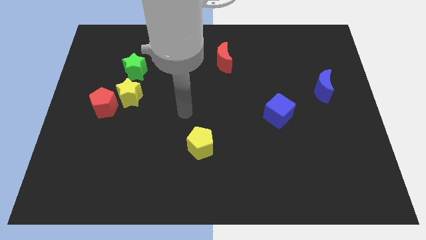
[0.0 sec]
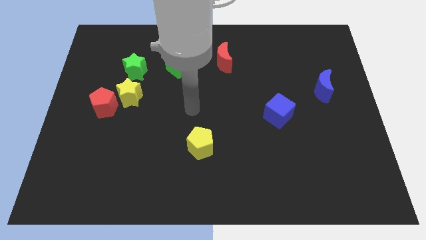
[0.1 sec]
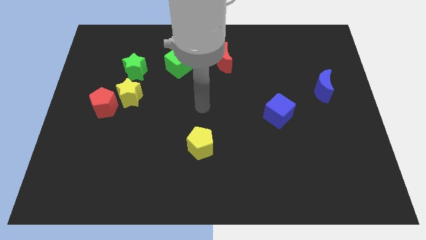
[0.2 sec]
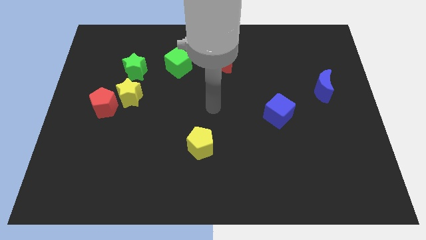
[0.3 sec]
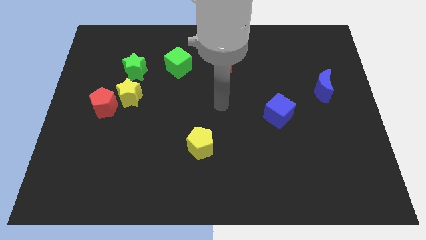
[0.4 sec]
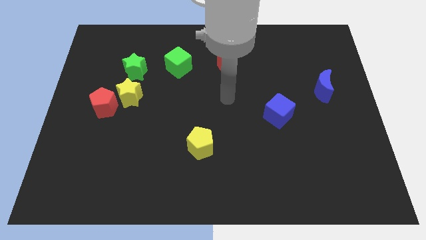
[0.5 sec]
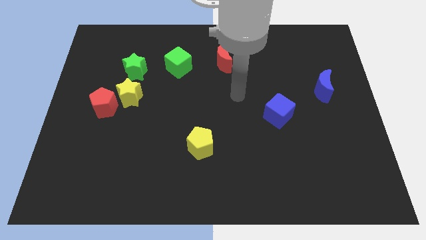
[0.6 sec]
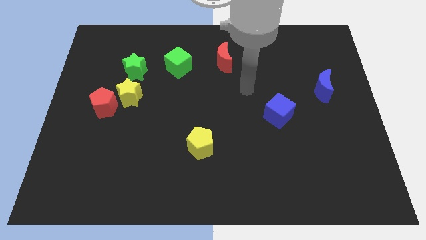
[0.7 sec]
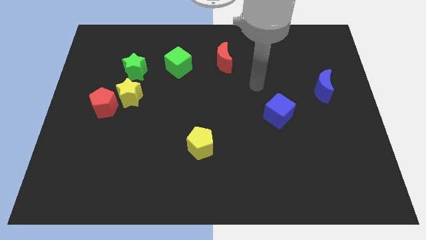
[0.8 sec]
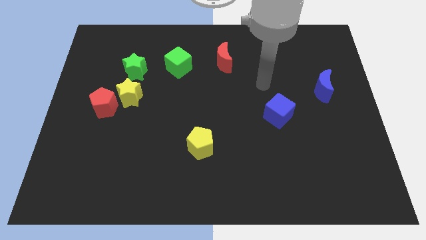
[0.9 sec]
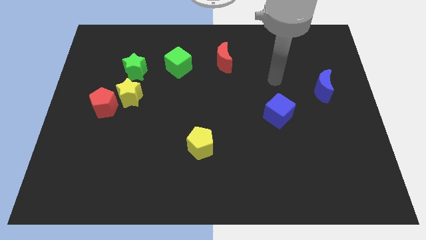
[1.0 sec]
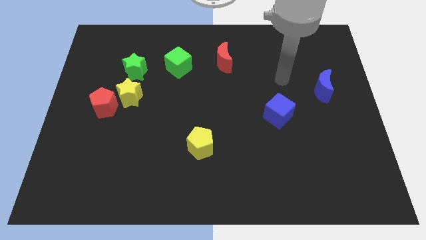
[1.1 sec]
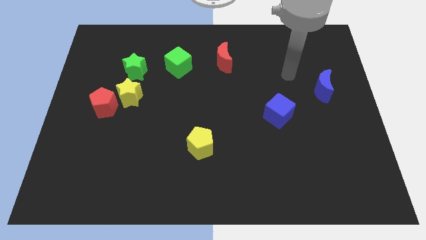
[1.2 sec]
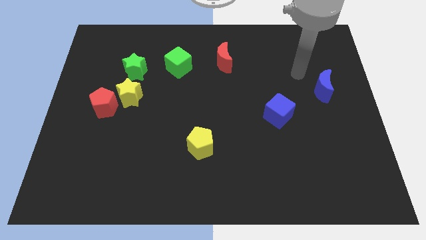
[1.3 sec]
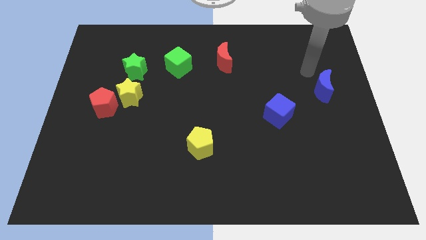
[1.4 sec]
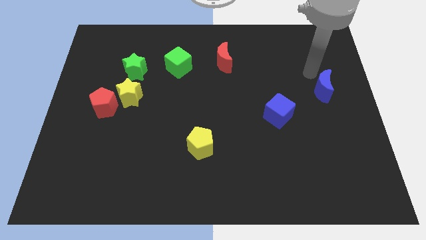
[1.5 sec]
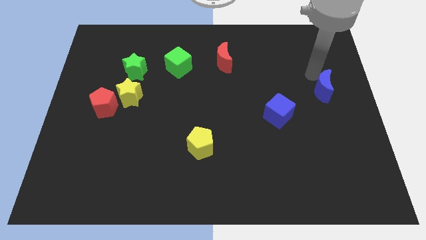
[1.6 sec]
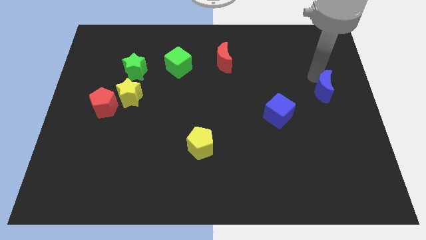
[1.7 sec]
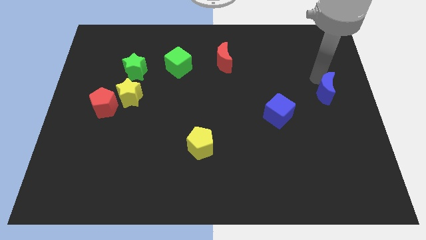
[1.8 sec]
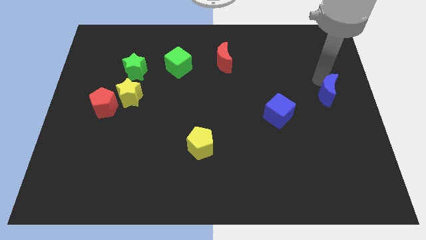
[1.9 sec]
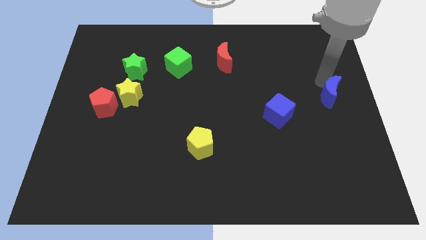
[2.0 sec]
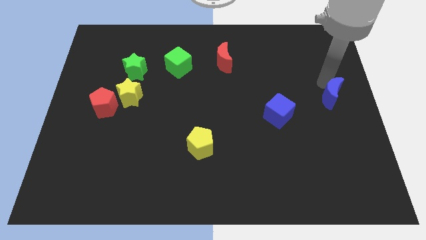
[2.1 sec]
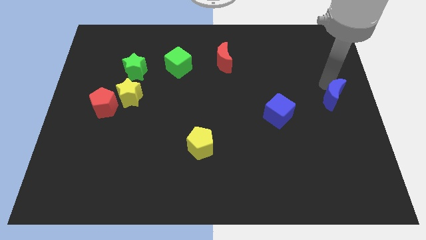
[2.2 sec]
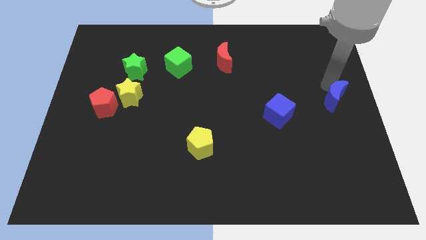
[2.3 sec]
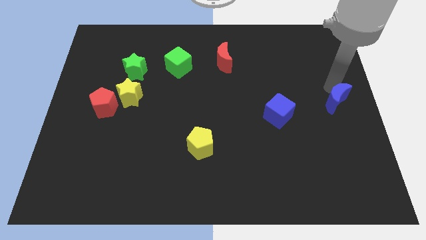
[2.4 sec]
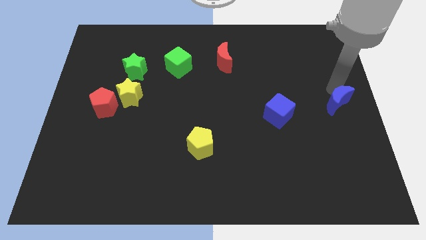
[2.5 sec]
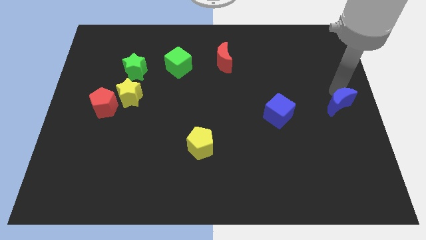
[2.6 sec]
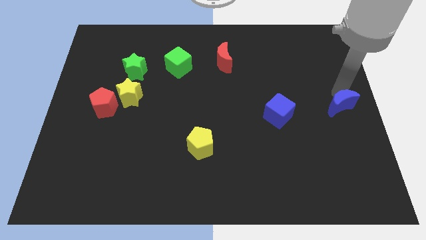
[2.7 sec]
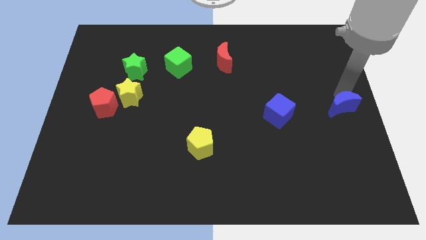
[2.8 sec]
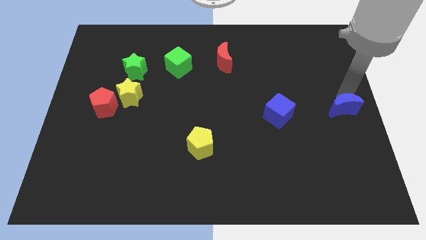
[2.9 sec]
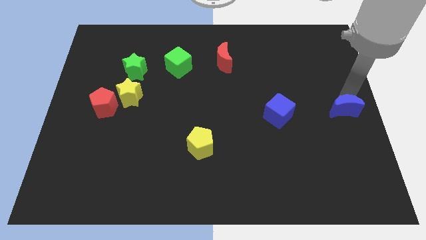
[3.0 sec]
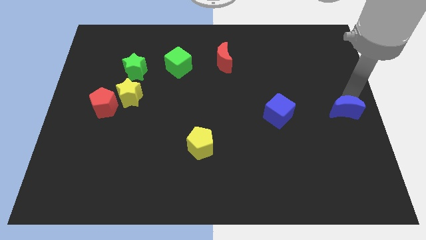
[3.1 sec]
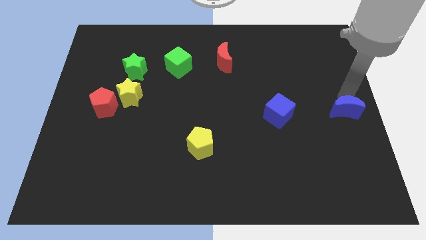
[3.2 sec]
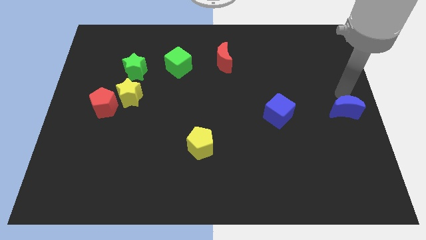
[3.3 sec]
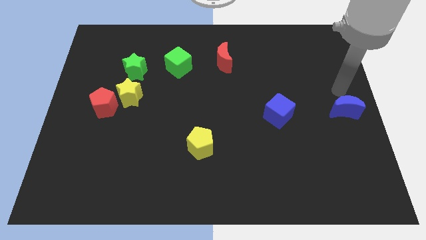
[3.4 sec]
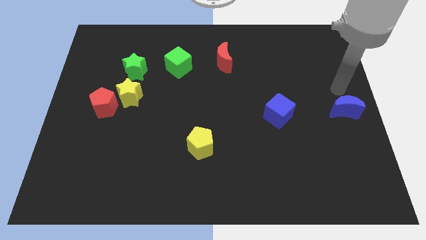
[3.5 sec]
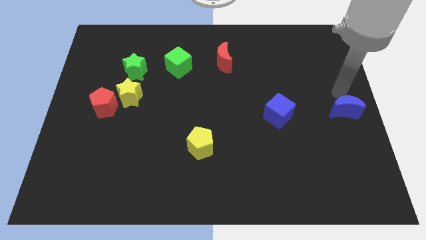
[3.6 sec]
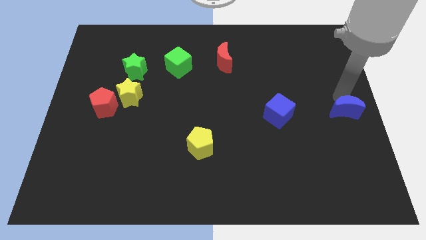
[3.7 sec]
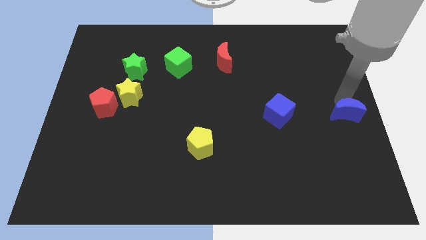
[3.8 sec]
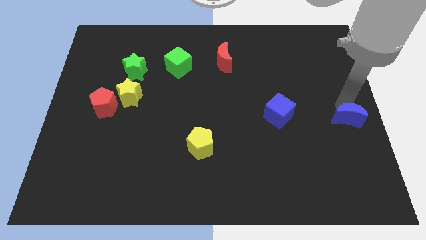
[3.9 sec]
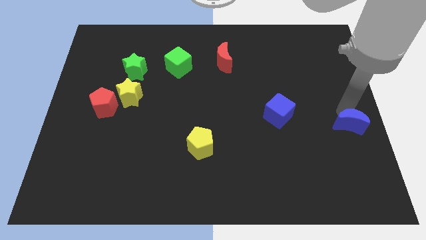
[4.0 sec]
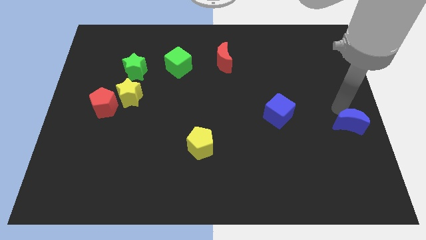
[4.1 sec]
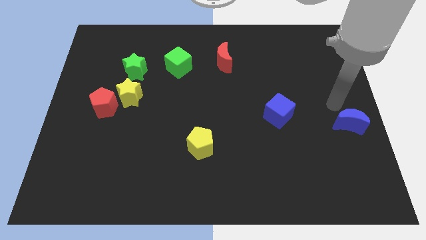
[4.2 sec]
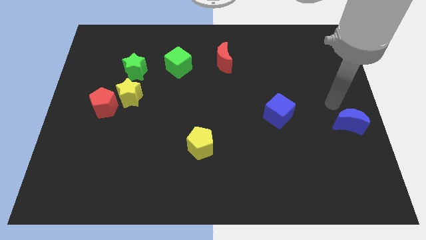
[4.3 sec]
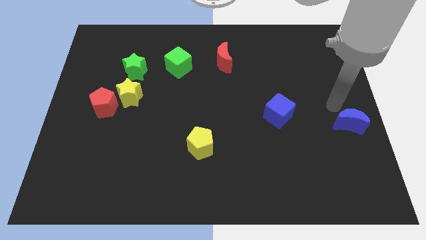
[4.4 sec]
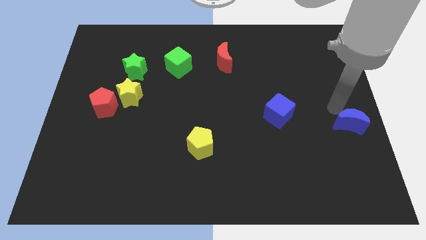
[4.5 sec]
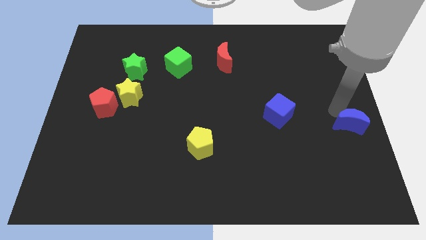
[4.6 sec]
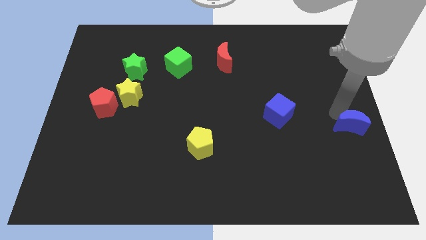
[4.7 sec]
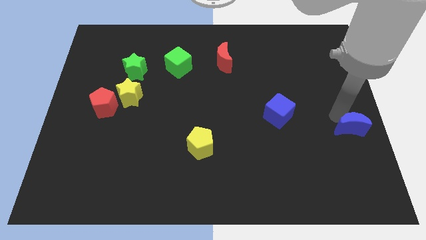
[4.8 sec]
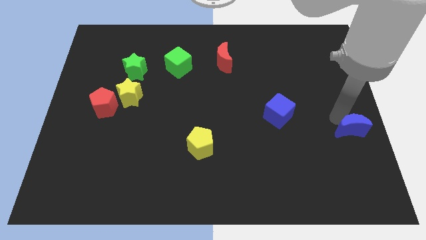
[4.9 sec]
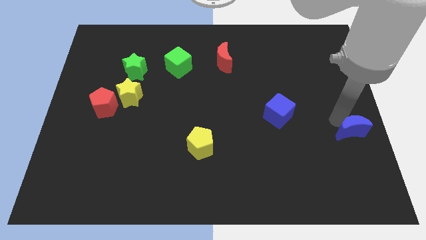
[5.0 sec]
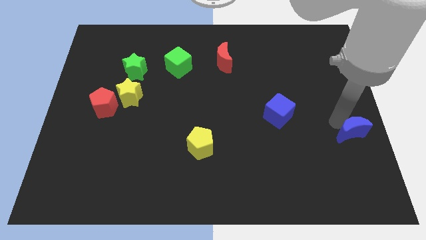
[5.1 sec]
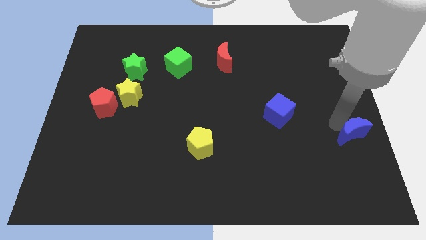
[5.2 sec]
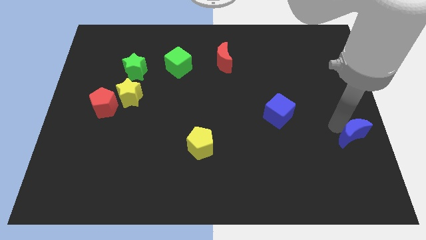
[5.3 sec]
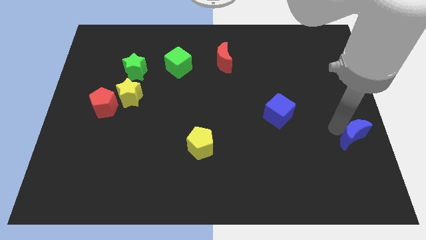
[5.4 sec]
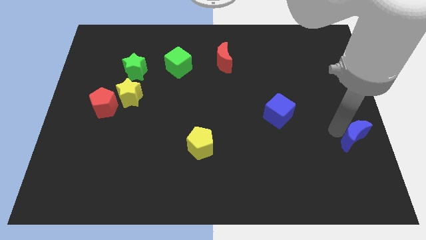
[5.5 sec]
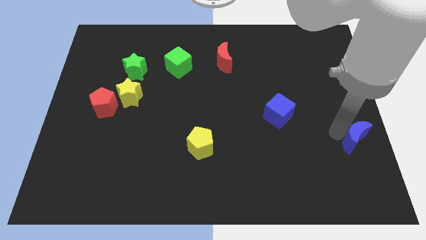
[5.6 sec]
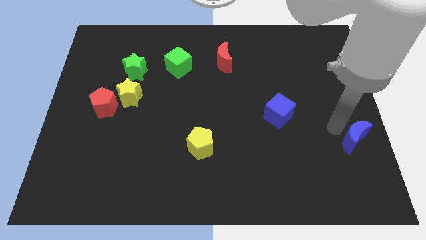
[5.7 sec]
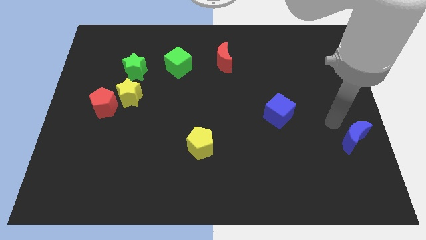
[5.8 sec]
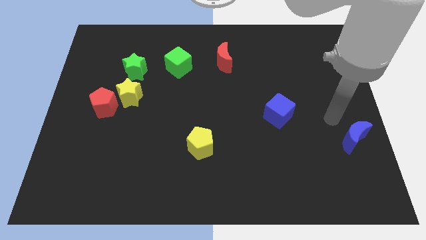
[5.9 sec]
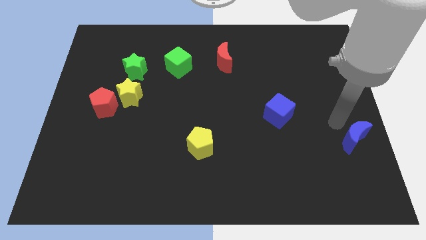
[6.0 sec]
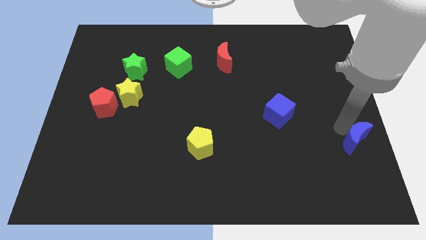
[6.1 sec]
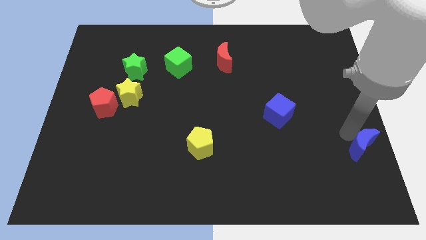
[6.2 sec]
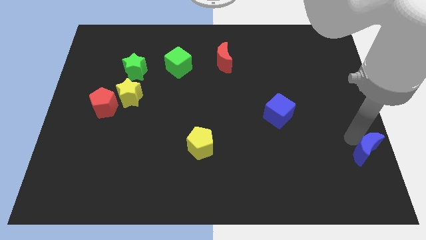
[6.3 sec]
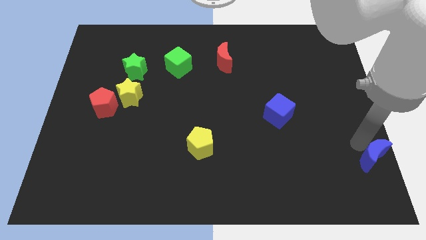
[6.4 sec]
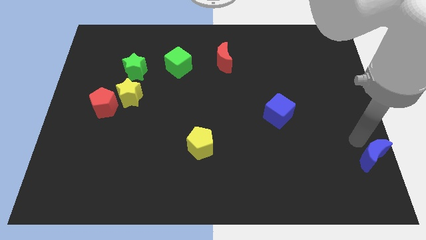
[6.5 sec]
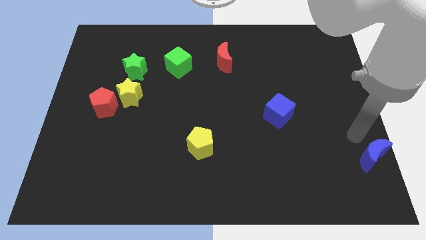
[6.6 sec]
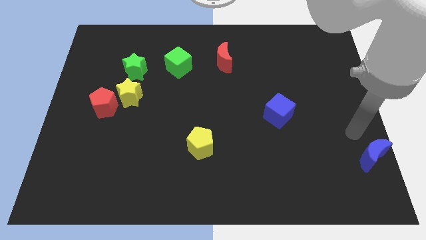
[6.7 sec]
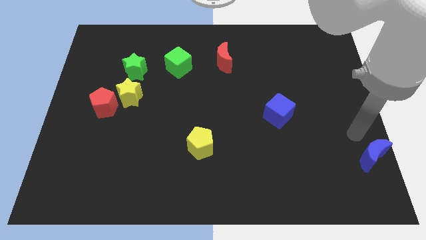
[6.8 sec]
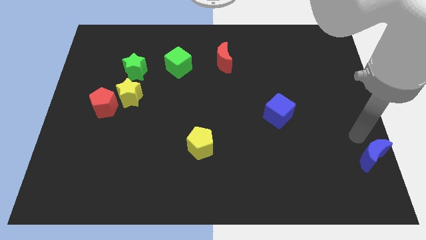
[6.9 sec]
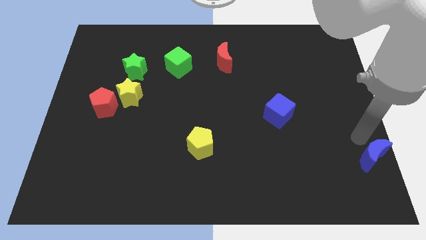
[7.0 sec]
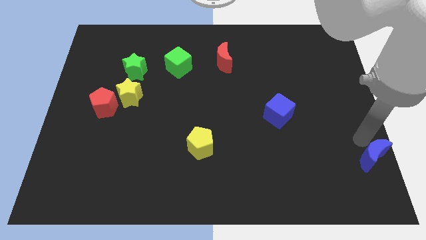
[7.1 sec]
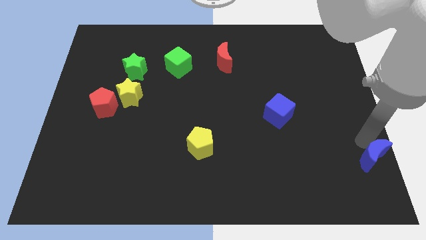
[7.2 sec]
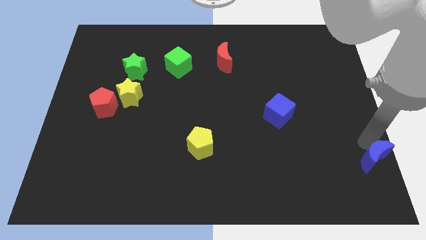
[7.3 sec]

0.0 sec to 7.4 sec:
push the blue moon to the bottom right of the board
